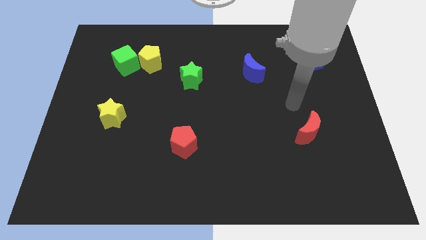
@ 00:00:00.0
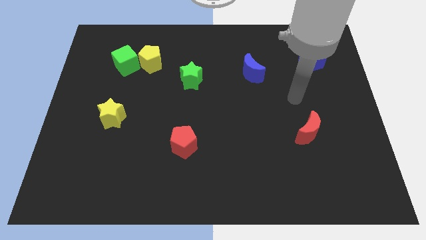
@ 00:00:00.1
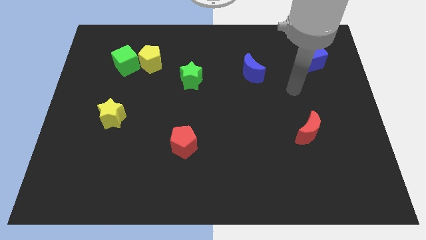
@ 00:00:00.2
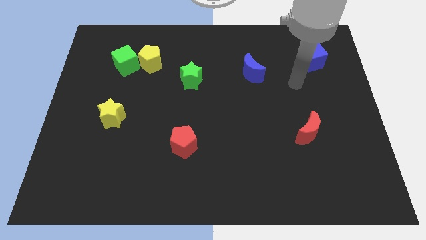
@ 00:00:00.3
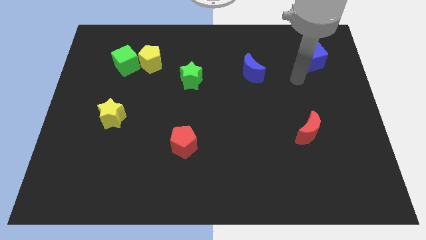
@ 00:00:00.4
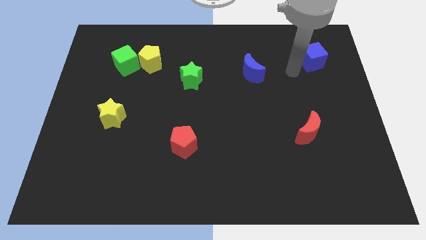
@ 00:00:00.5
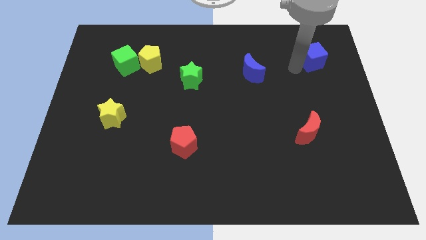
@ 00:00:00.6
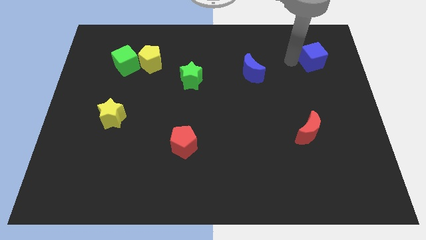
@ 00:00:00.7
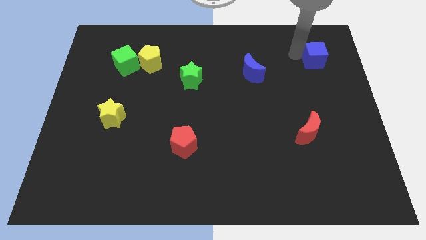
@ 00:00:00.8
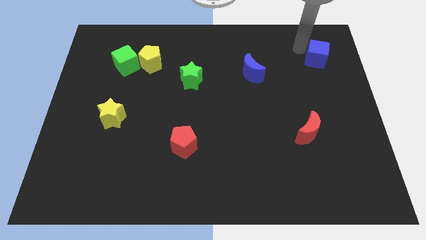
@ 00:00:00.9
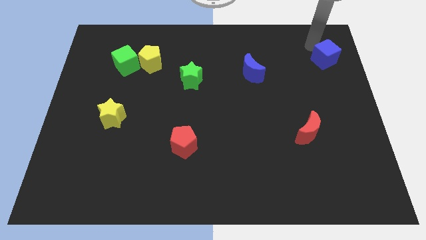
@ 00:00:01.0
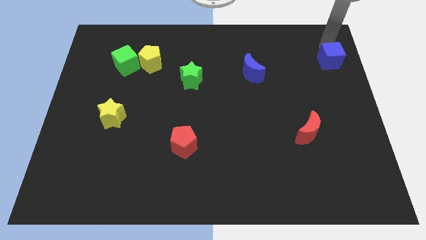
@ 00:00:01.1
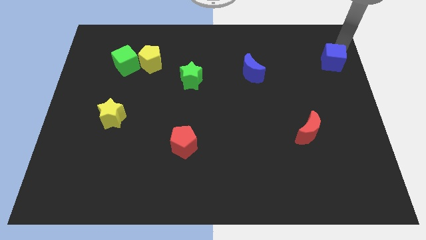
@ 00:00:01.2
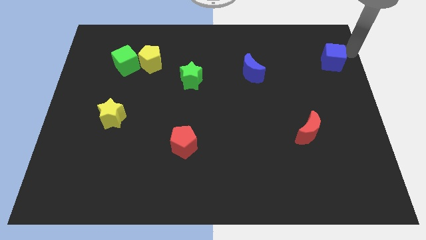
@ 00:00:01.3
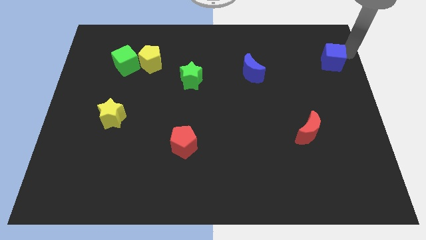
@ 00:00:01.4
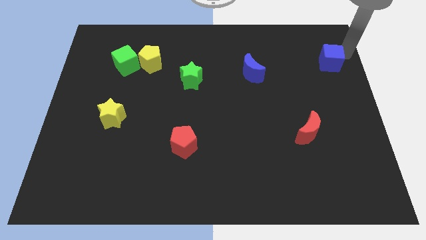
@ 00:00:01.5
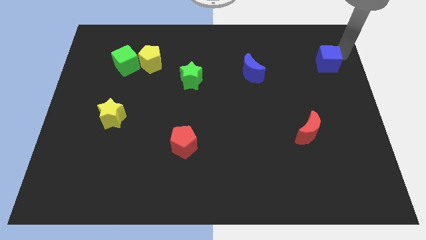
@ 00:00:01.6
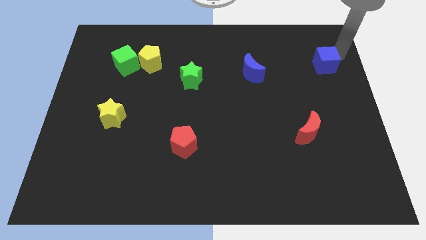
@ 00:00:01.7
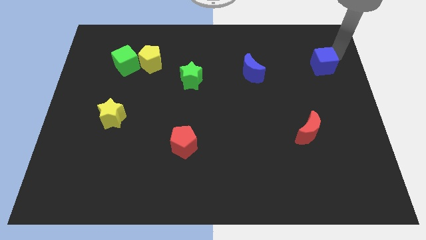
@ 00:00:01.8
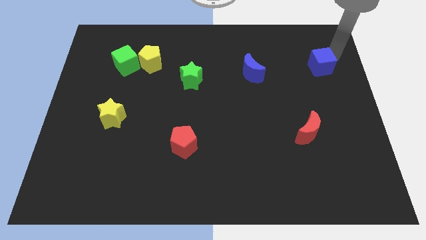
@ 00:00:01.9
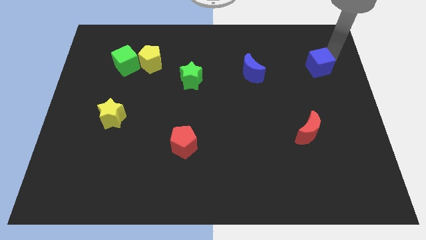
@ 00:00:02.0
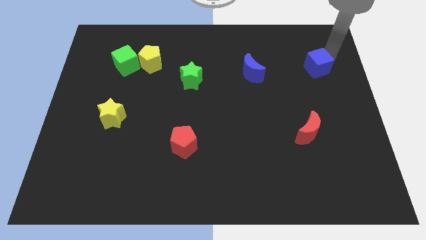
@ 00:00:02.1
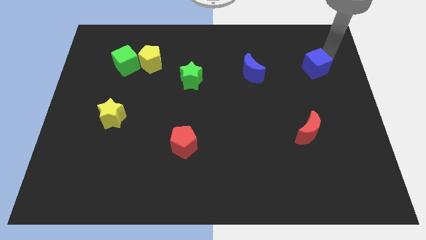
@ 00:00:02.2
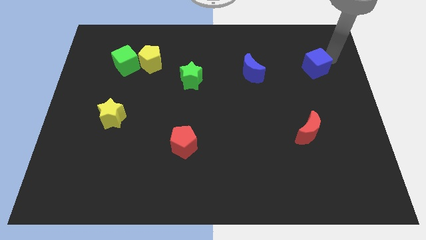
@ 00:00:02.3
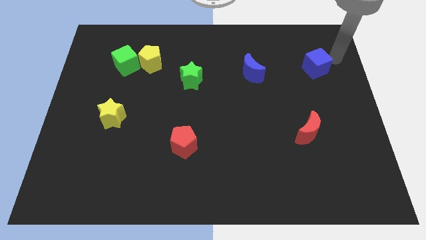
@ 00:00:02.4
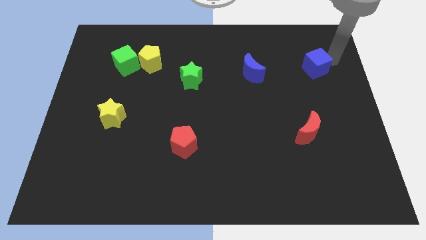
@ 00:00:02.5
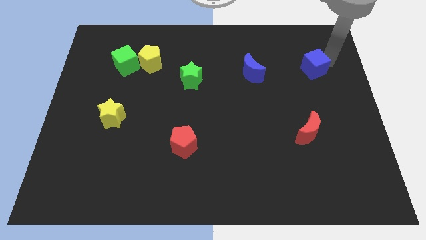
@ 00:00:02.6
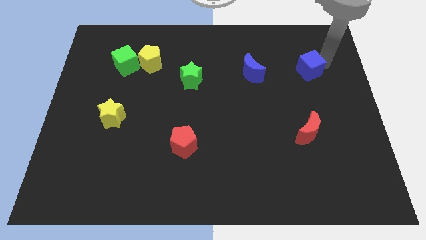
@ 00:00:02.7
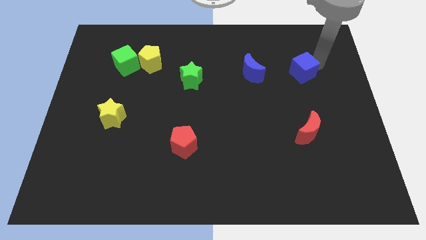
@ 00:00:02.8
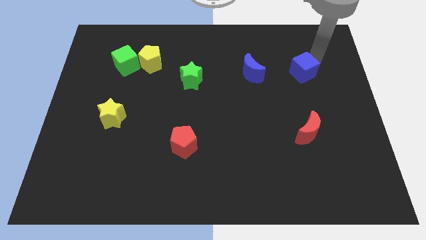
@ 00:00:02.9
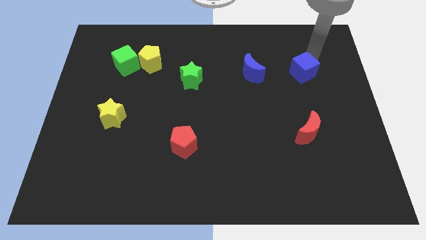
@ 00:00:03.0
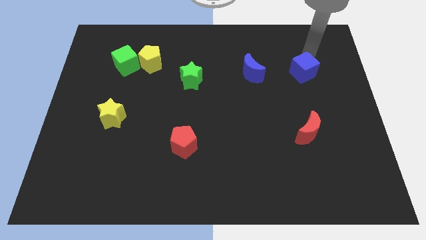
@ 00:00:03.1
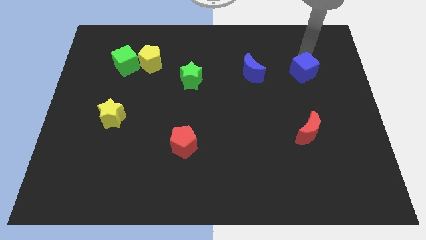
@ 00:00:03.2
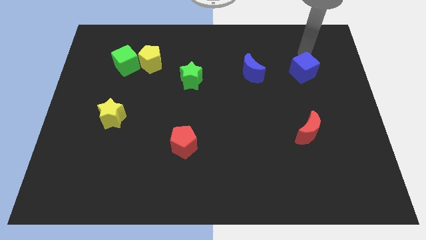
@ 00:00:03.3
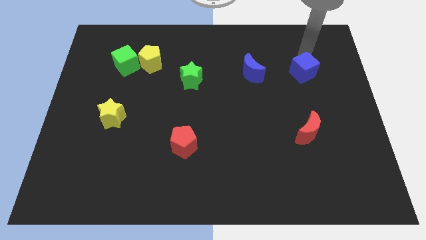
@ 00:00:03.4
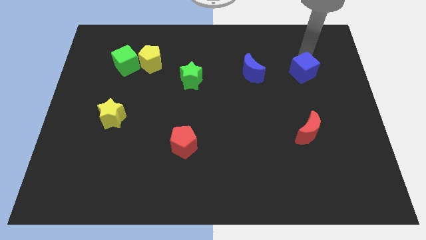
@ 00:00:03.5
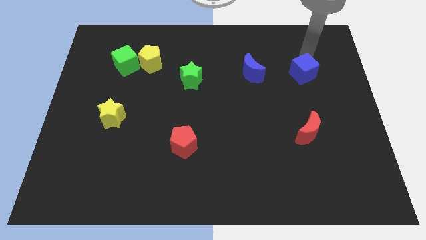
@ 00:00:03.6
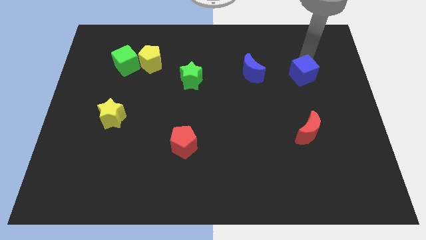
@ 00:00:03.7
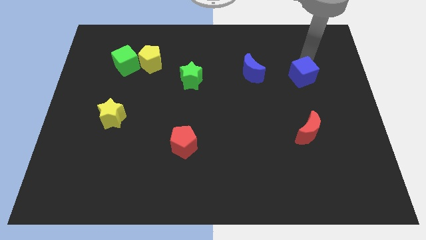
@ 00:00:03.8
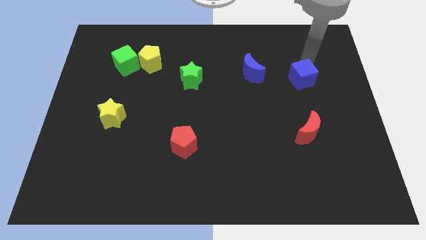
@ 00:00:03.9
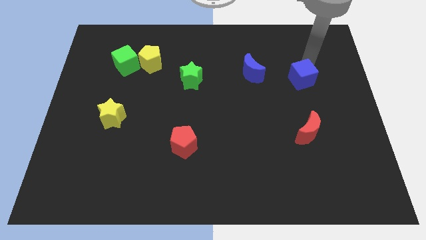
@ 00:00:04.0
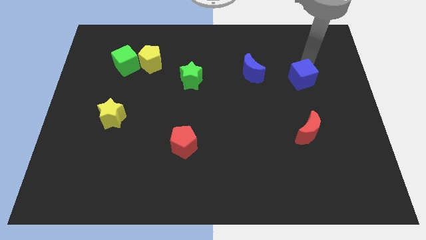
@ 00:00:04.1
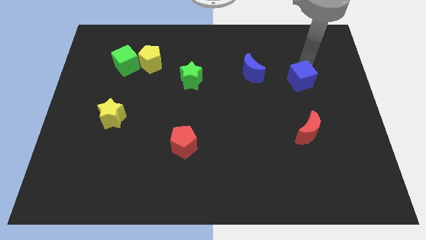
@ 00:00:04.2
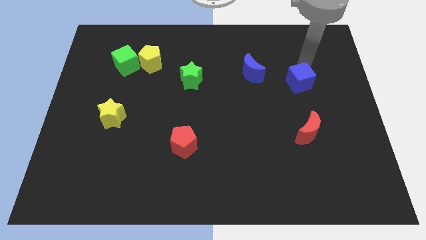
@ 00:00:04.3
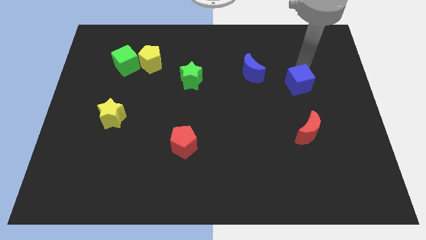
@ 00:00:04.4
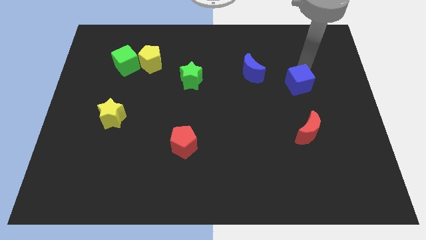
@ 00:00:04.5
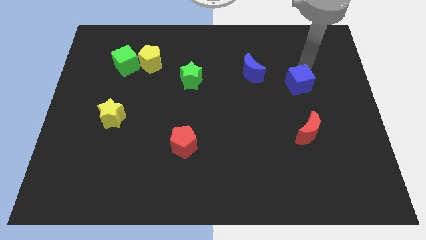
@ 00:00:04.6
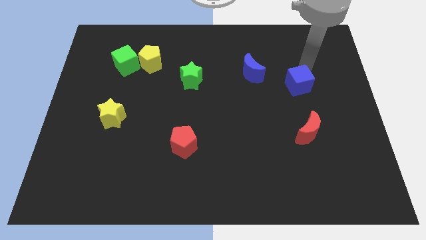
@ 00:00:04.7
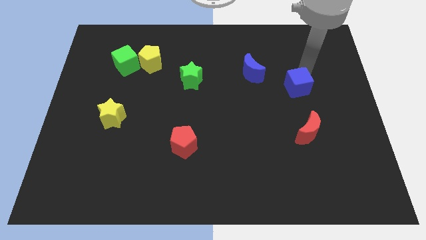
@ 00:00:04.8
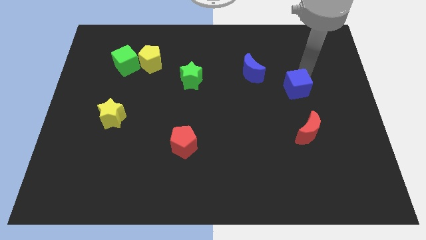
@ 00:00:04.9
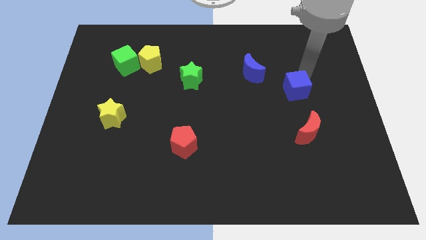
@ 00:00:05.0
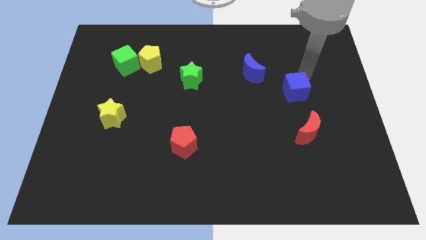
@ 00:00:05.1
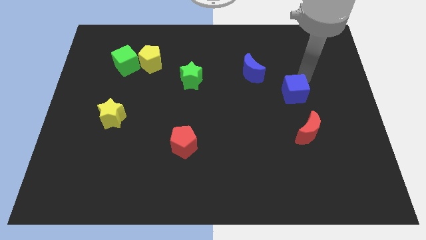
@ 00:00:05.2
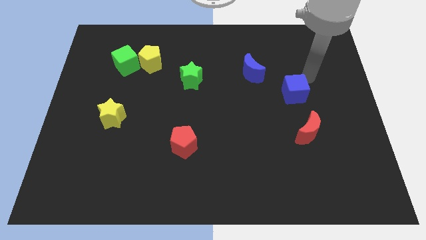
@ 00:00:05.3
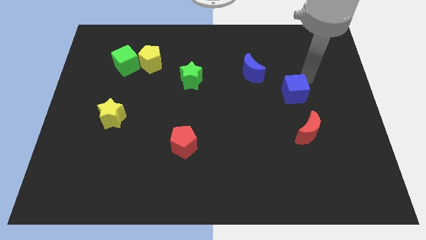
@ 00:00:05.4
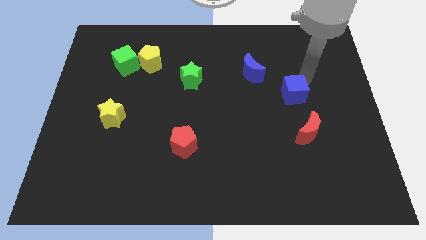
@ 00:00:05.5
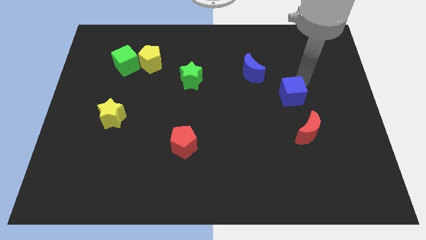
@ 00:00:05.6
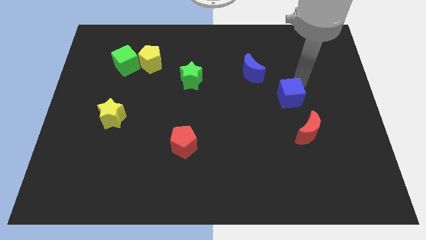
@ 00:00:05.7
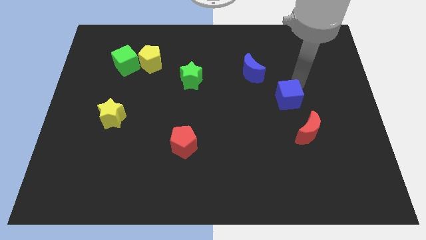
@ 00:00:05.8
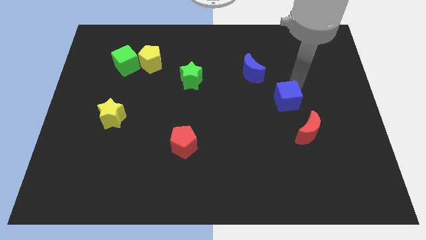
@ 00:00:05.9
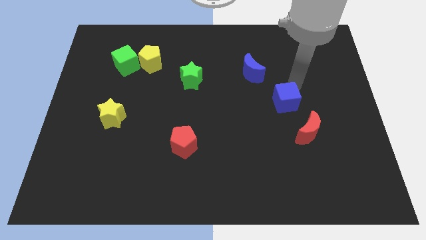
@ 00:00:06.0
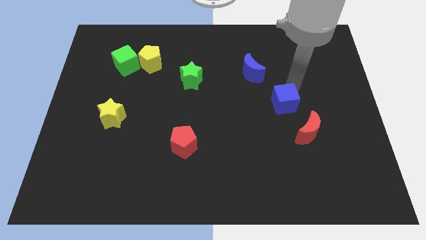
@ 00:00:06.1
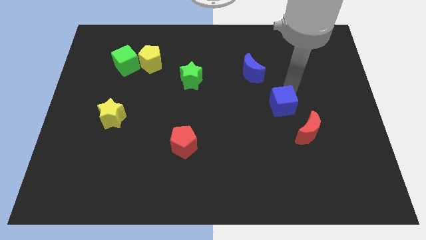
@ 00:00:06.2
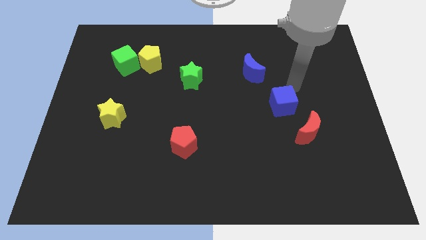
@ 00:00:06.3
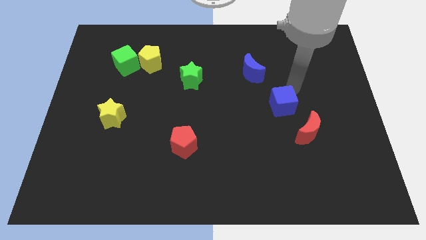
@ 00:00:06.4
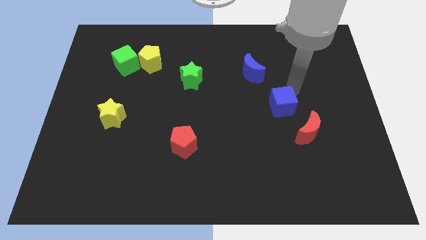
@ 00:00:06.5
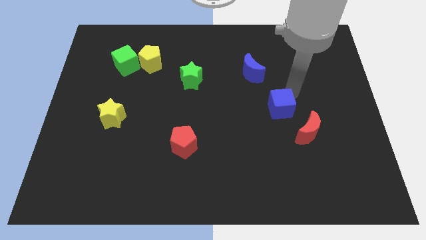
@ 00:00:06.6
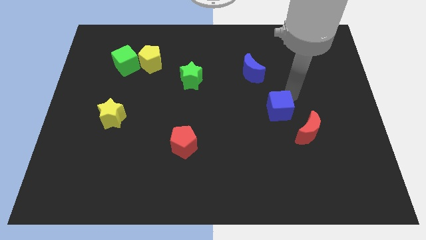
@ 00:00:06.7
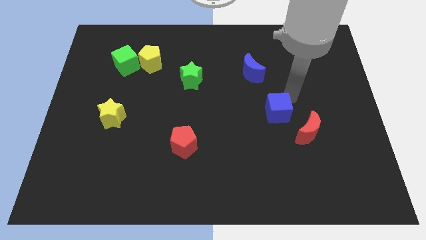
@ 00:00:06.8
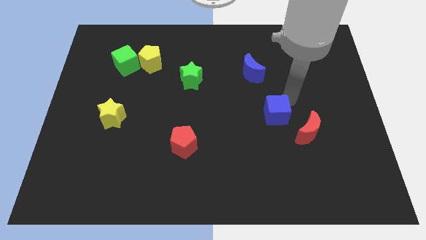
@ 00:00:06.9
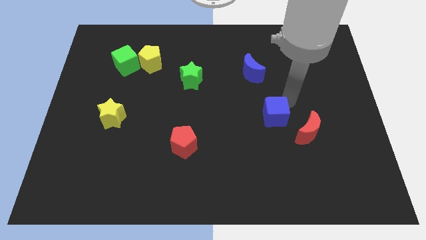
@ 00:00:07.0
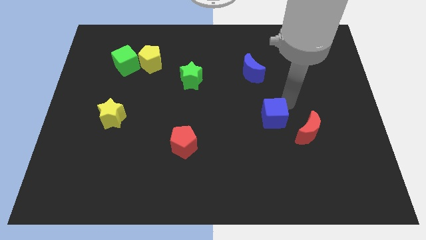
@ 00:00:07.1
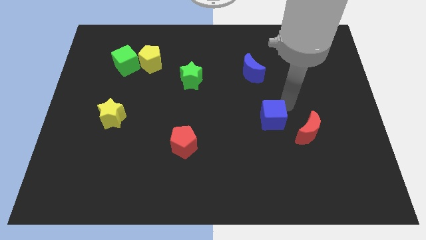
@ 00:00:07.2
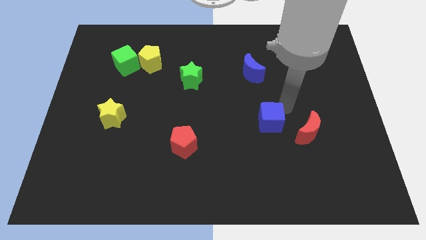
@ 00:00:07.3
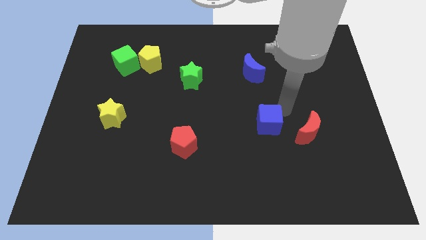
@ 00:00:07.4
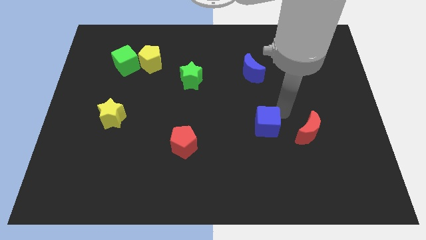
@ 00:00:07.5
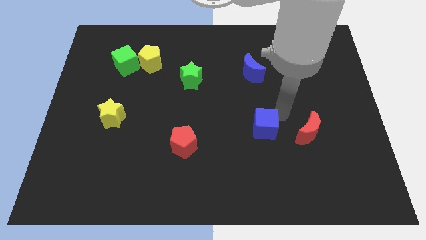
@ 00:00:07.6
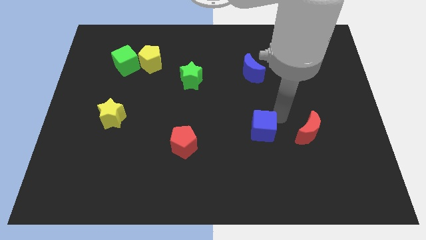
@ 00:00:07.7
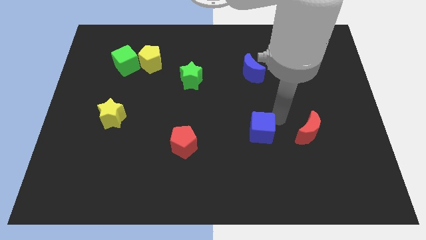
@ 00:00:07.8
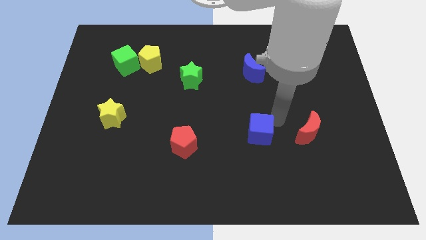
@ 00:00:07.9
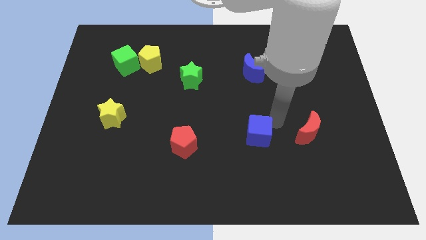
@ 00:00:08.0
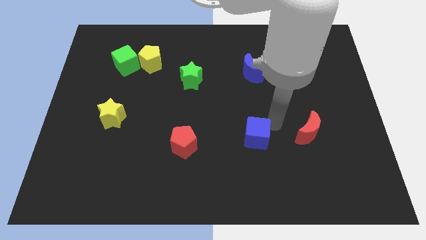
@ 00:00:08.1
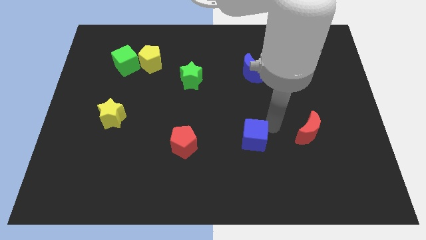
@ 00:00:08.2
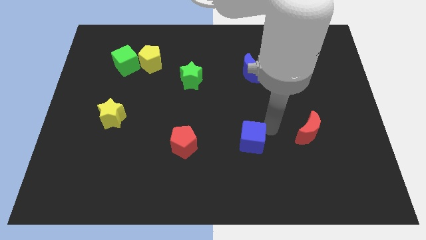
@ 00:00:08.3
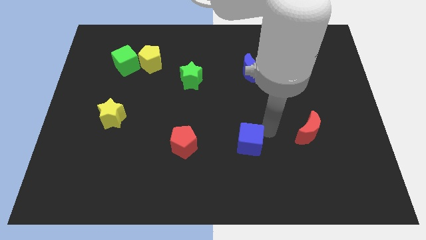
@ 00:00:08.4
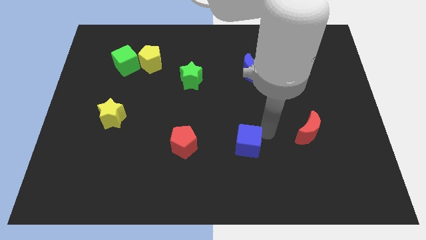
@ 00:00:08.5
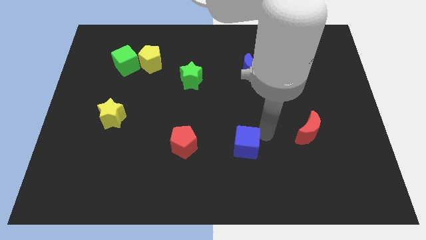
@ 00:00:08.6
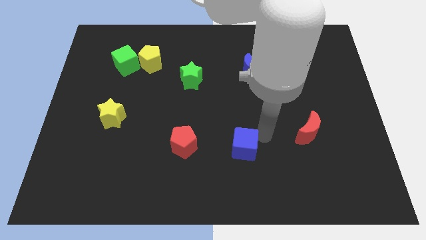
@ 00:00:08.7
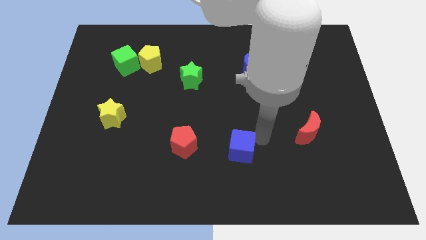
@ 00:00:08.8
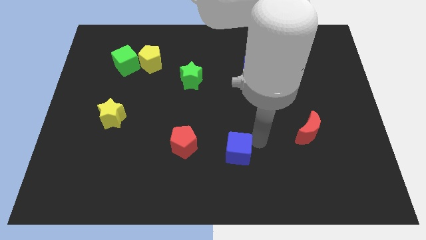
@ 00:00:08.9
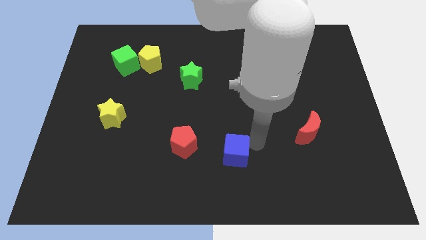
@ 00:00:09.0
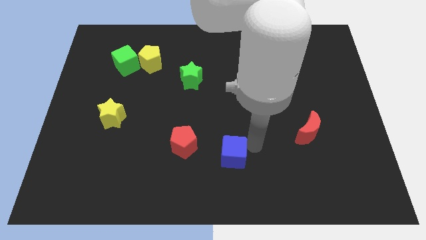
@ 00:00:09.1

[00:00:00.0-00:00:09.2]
put the blue cube to the bottom side
